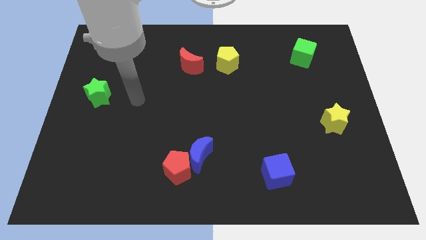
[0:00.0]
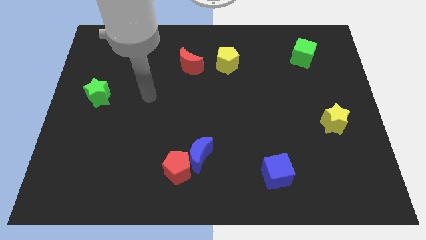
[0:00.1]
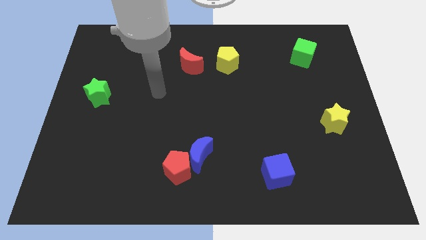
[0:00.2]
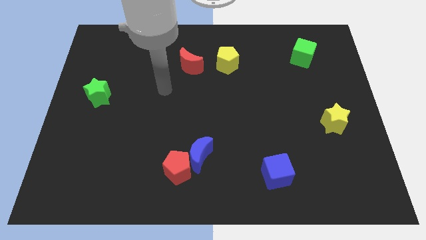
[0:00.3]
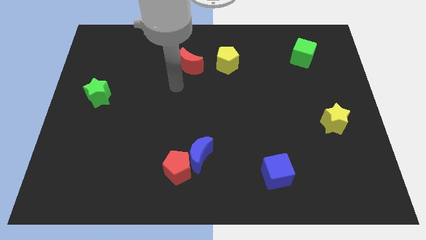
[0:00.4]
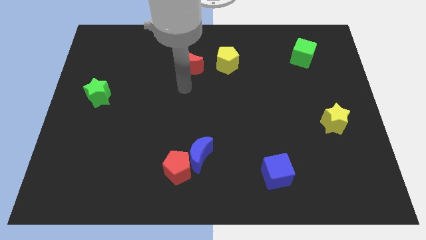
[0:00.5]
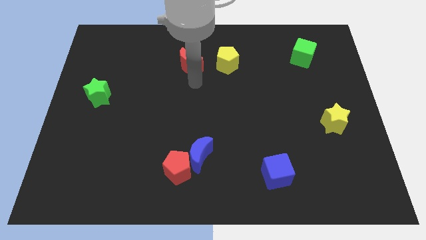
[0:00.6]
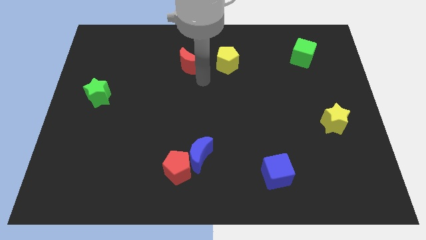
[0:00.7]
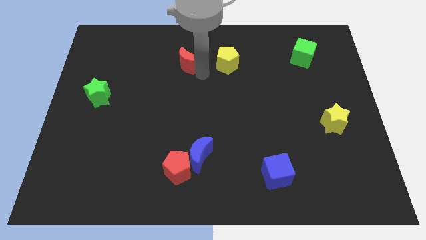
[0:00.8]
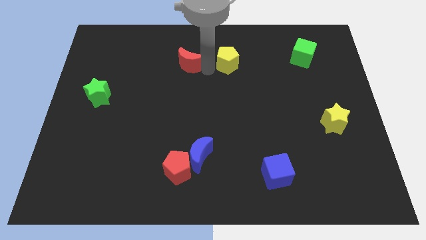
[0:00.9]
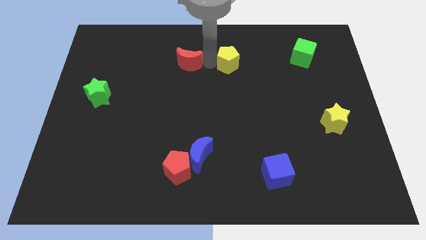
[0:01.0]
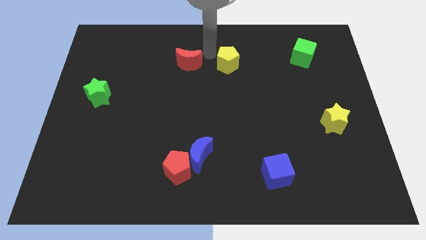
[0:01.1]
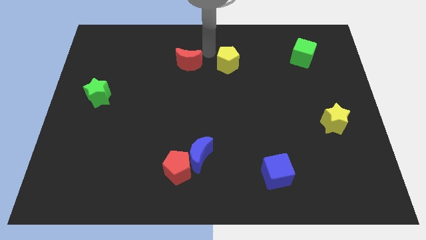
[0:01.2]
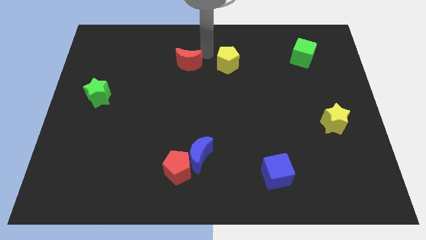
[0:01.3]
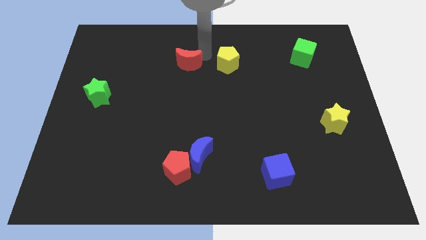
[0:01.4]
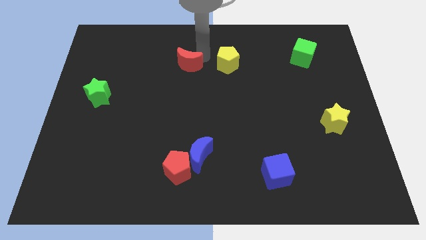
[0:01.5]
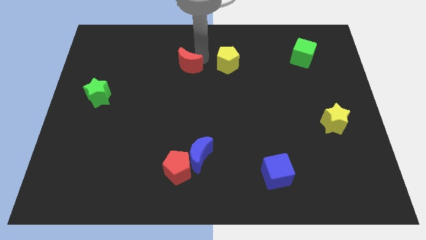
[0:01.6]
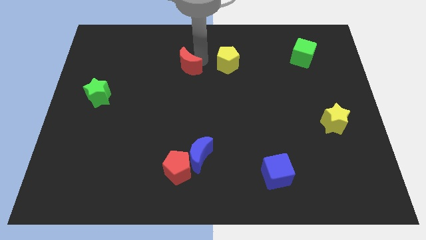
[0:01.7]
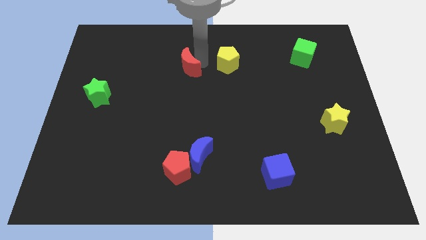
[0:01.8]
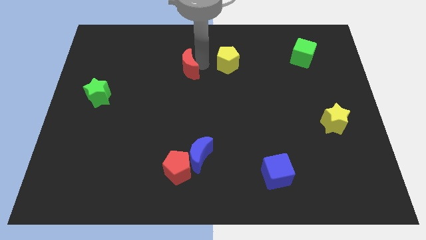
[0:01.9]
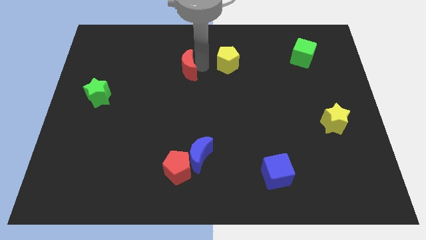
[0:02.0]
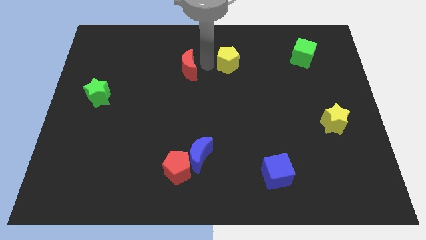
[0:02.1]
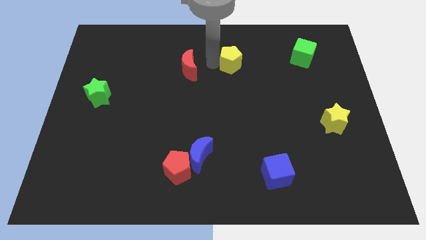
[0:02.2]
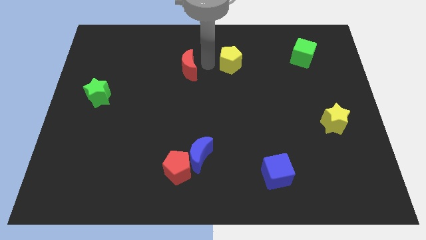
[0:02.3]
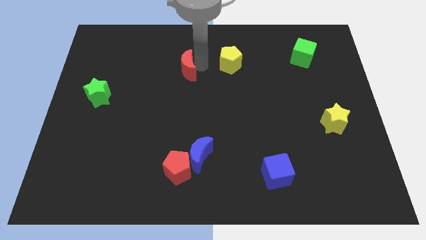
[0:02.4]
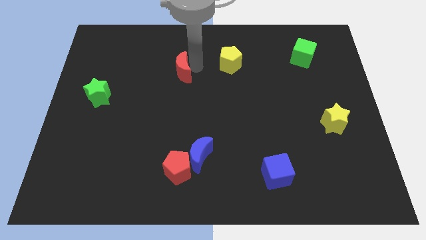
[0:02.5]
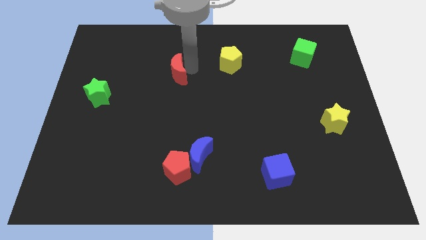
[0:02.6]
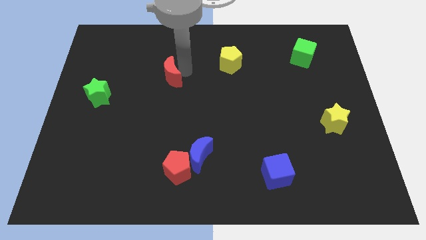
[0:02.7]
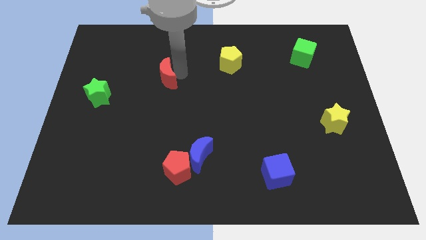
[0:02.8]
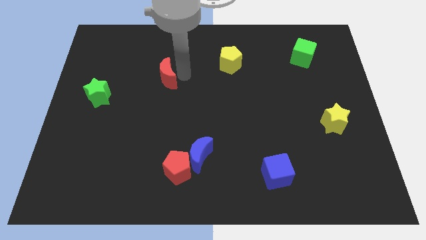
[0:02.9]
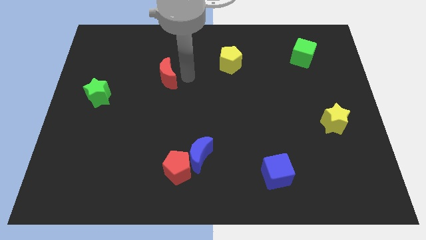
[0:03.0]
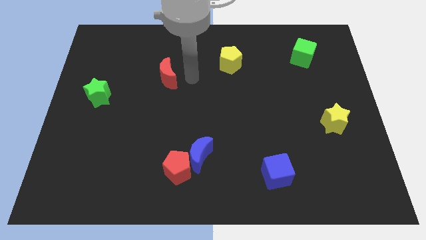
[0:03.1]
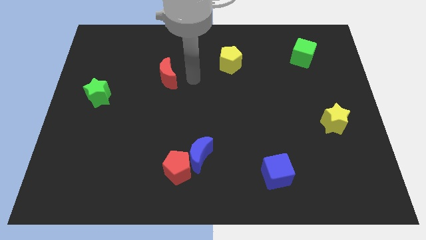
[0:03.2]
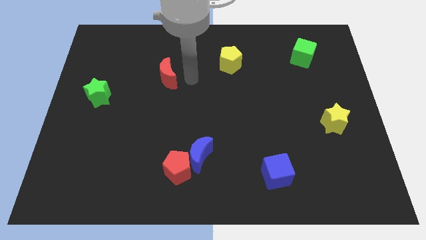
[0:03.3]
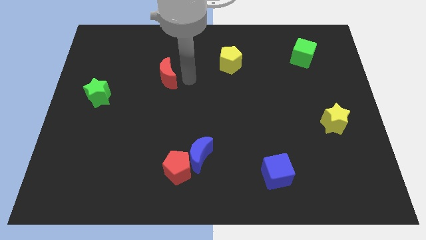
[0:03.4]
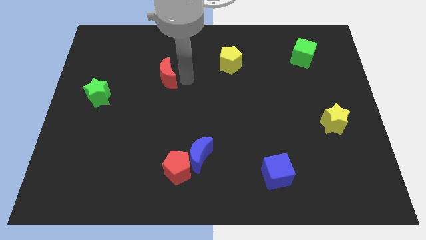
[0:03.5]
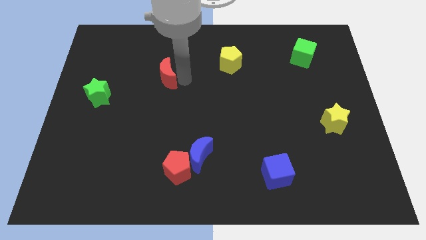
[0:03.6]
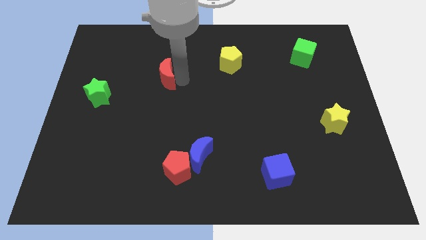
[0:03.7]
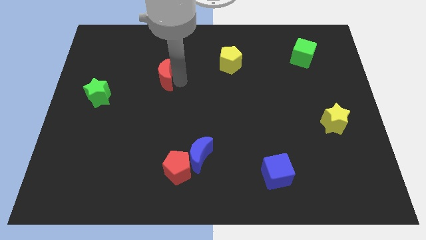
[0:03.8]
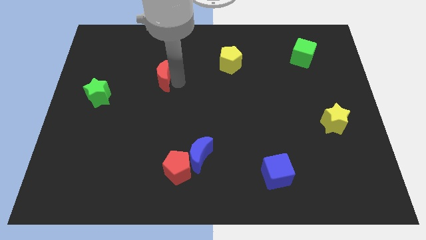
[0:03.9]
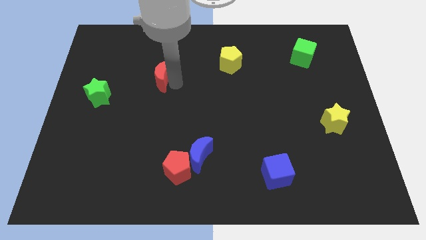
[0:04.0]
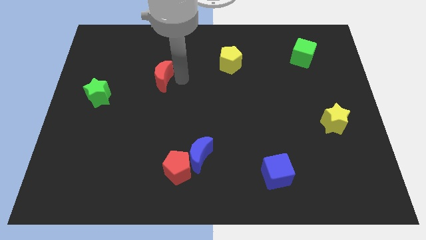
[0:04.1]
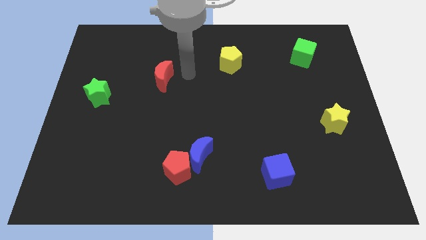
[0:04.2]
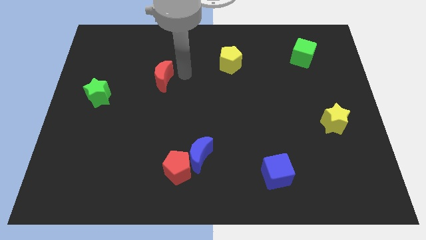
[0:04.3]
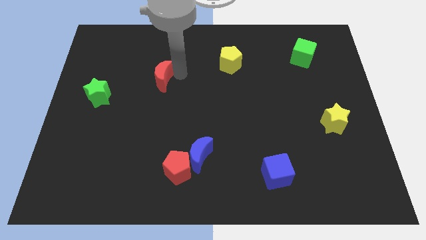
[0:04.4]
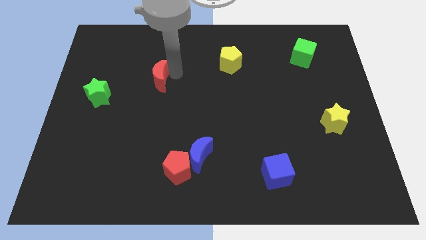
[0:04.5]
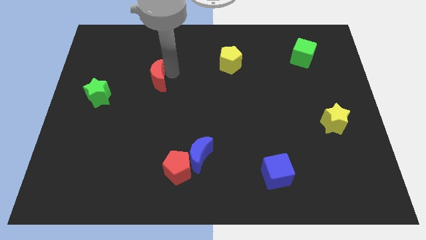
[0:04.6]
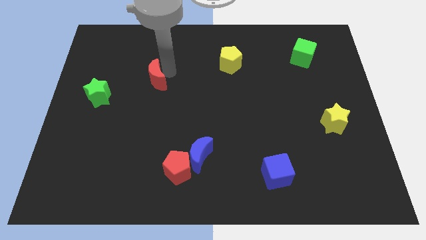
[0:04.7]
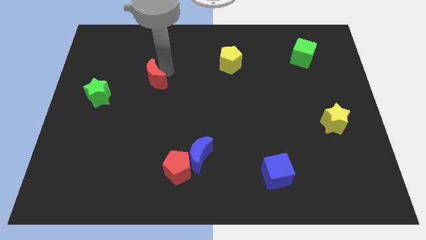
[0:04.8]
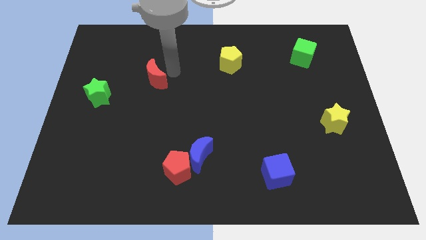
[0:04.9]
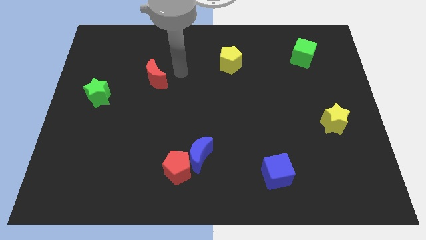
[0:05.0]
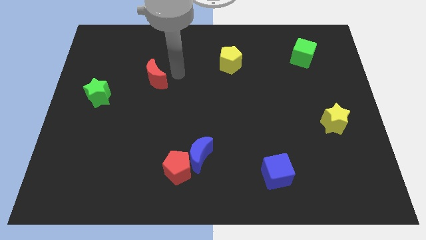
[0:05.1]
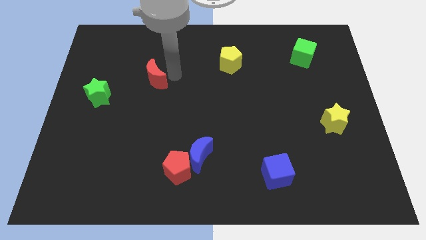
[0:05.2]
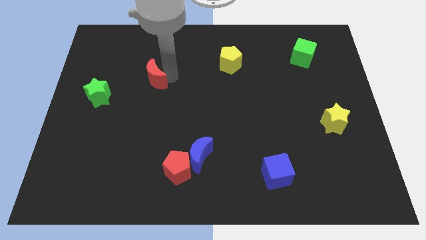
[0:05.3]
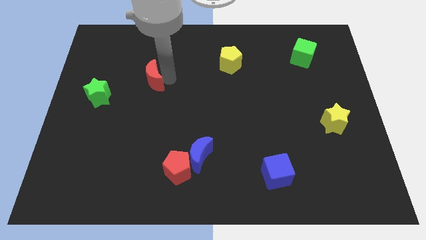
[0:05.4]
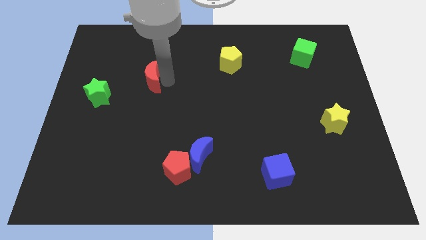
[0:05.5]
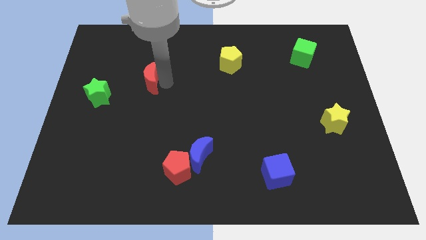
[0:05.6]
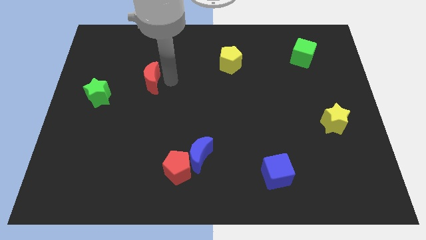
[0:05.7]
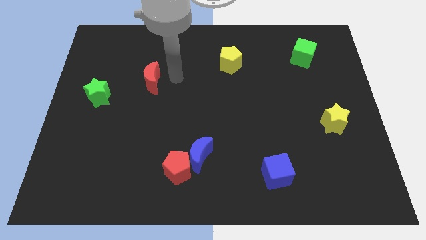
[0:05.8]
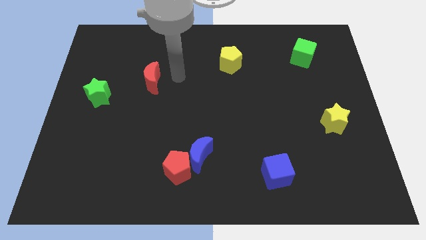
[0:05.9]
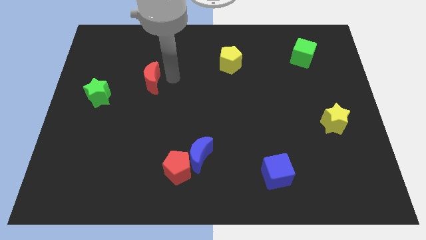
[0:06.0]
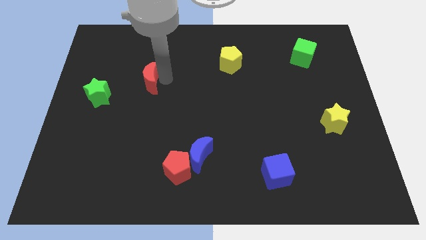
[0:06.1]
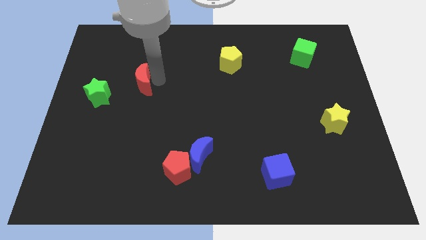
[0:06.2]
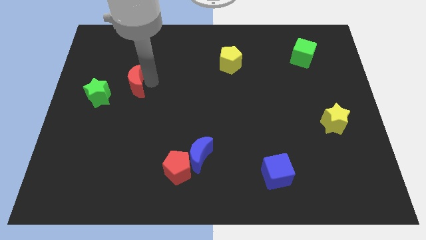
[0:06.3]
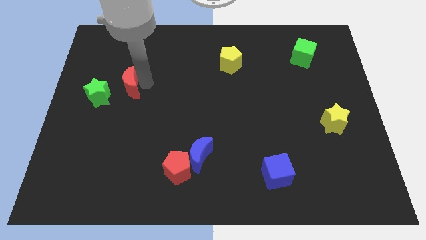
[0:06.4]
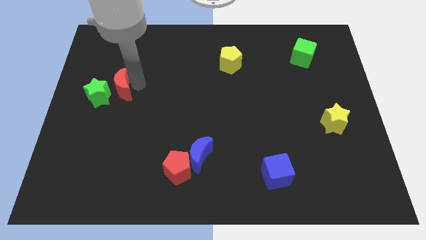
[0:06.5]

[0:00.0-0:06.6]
push the red moon to the green star
